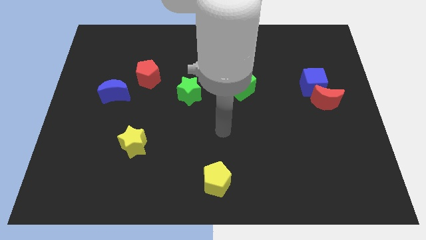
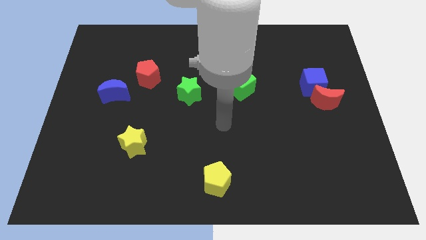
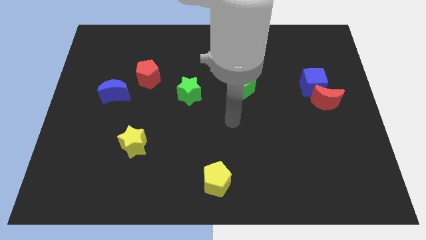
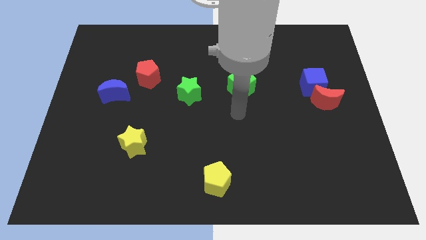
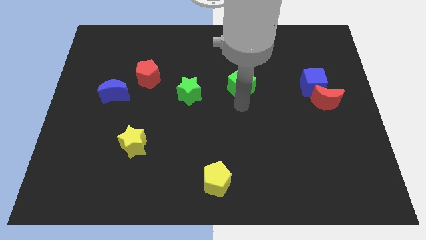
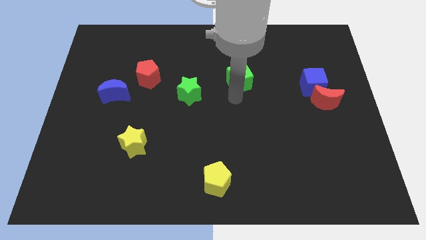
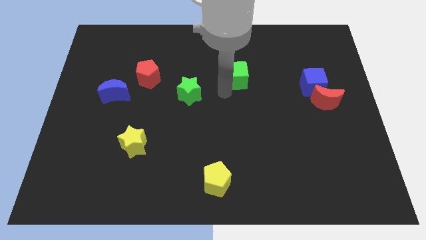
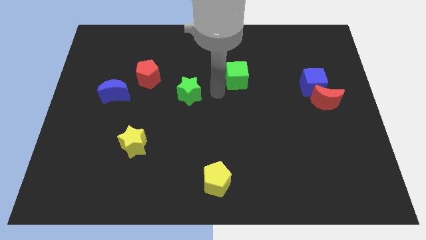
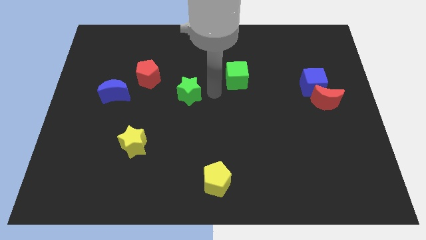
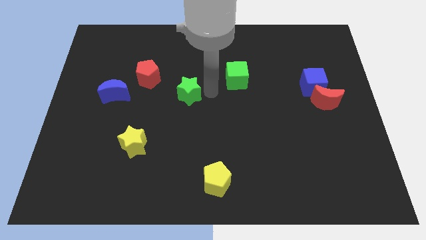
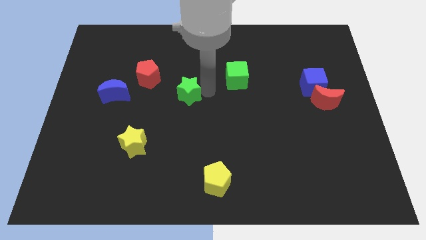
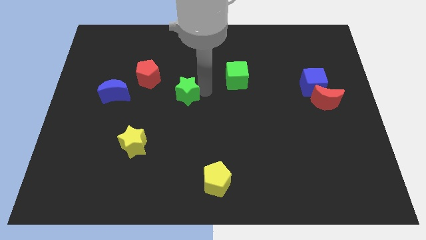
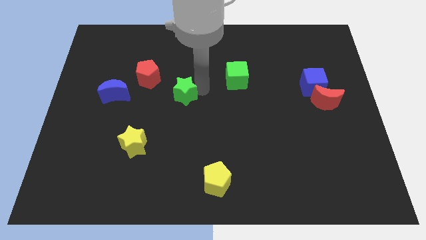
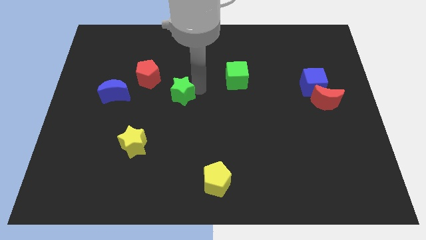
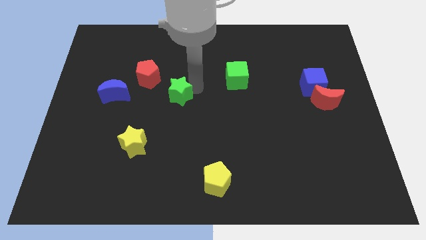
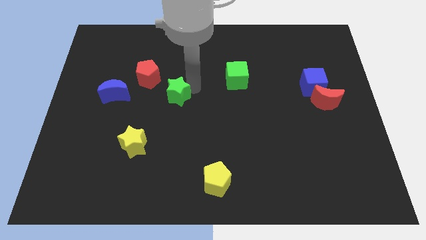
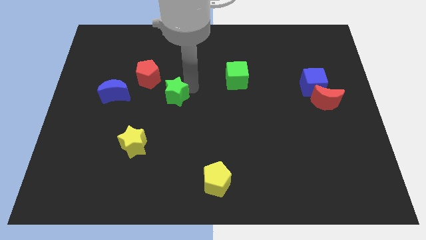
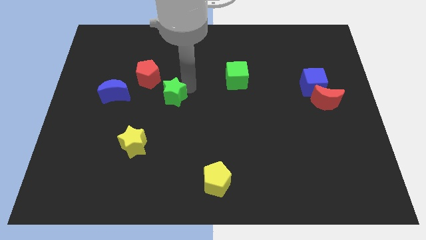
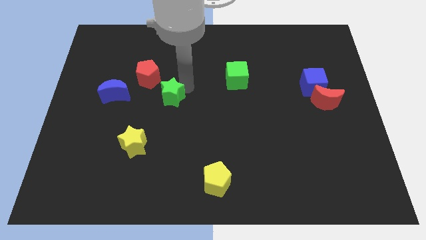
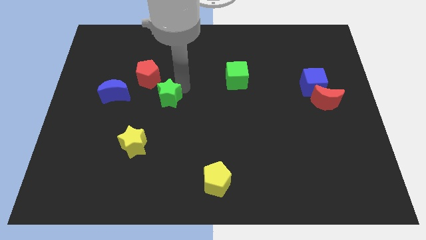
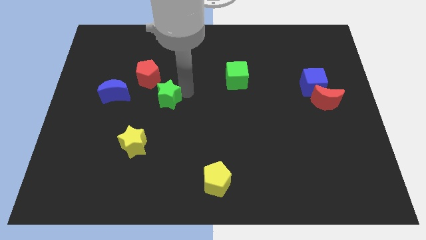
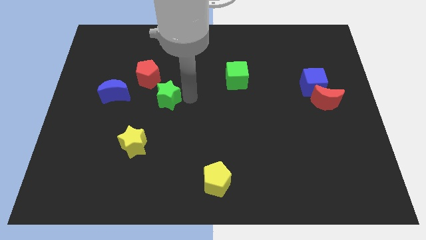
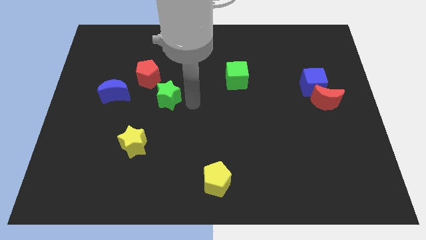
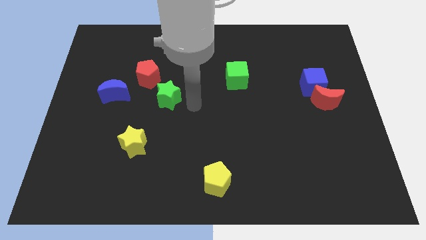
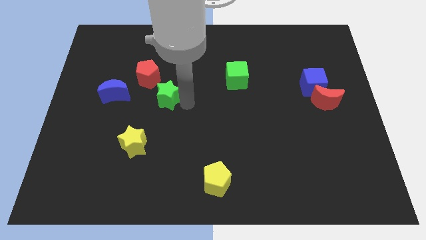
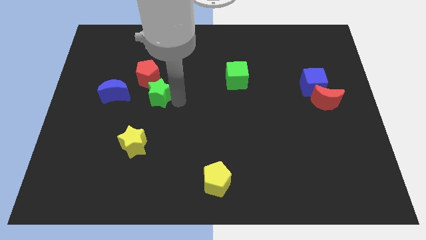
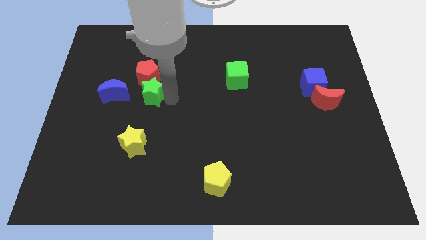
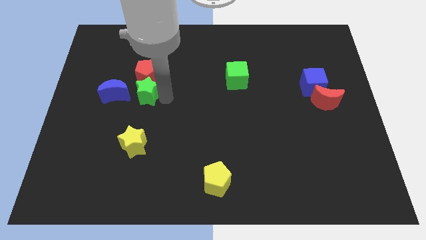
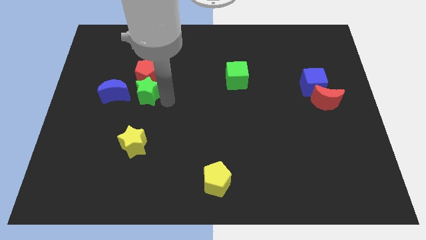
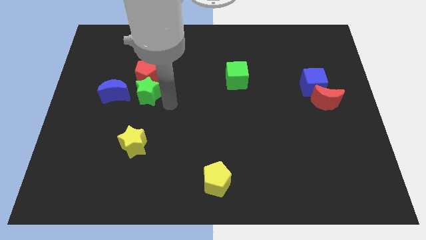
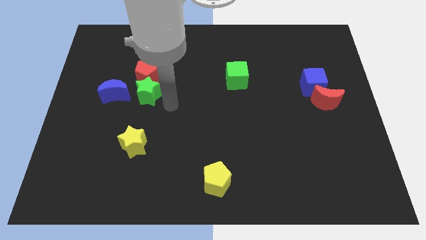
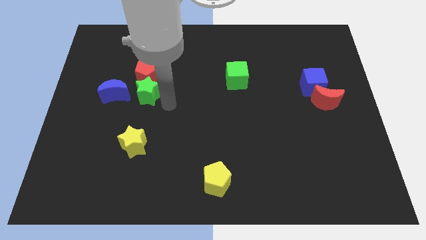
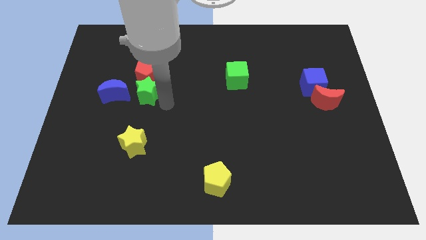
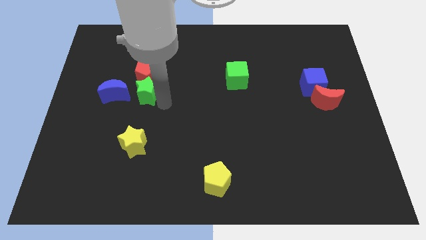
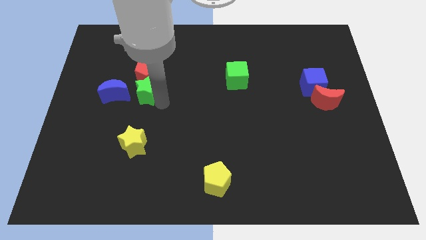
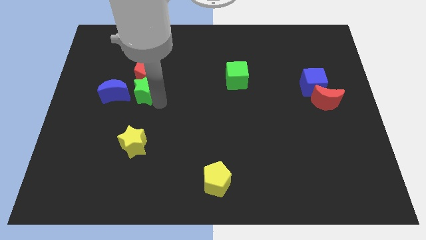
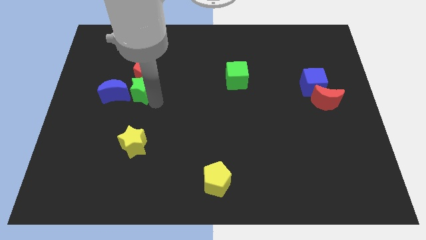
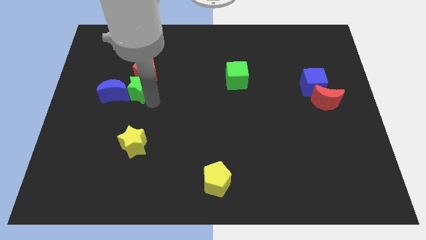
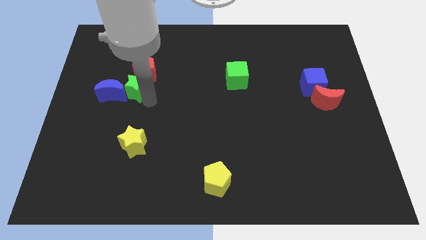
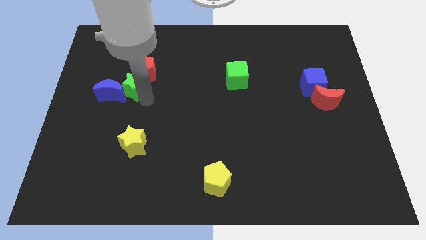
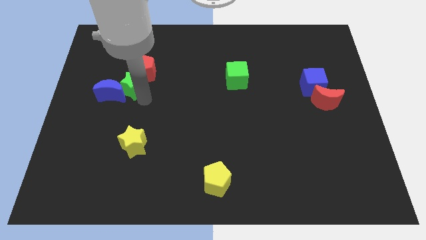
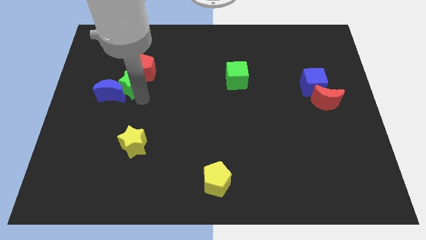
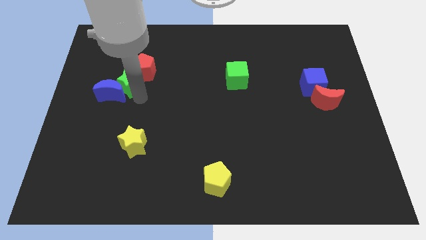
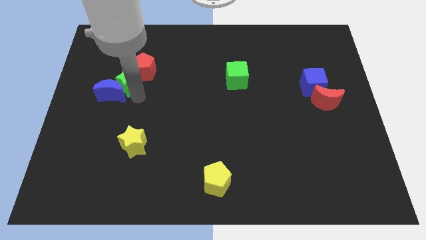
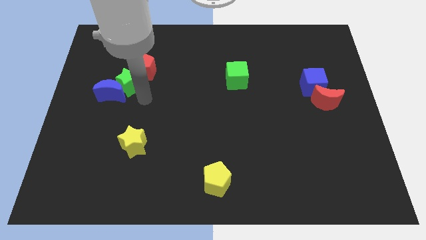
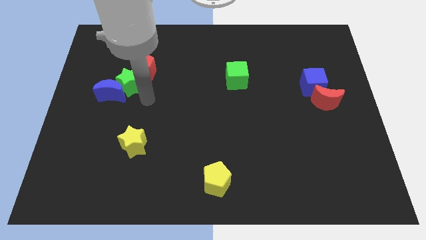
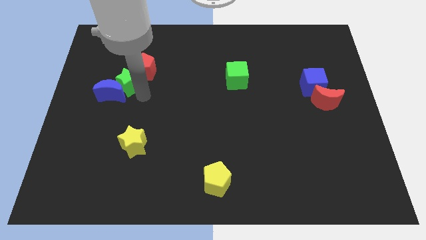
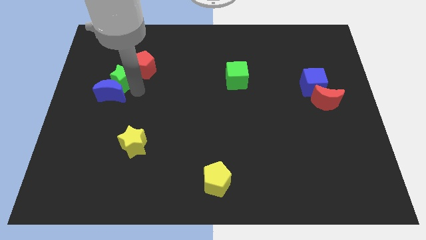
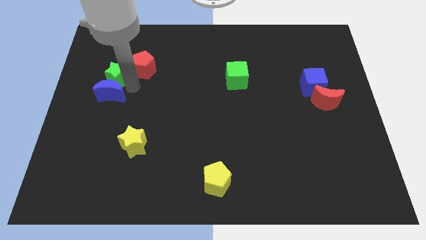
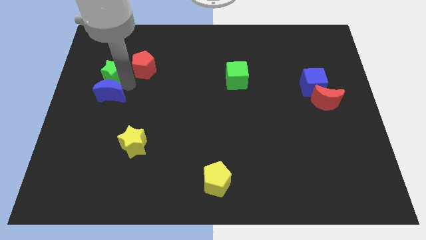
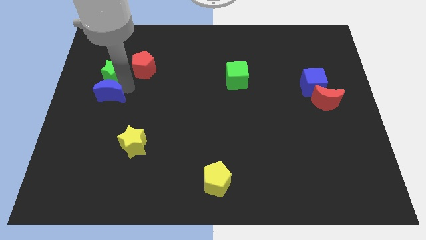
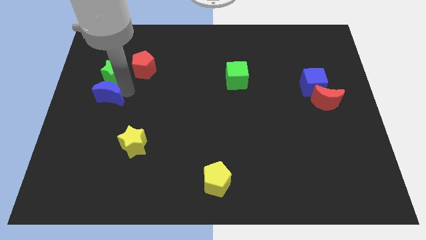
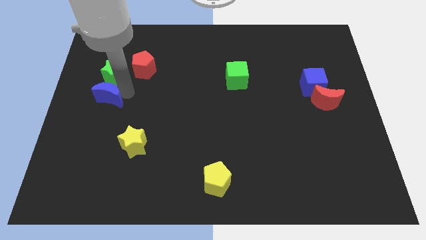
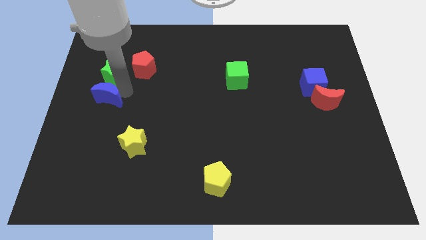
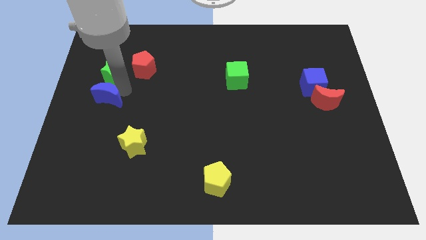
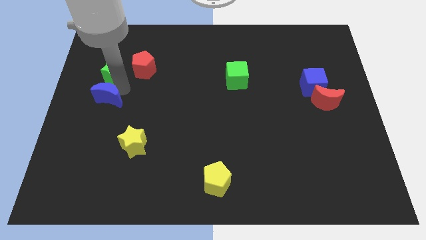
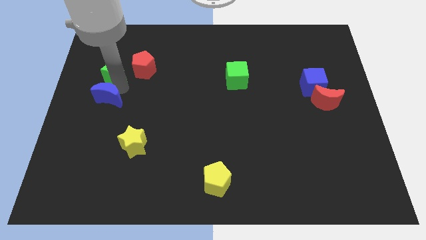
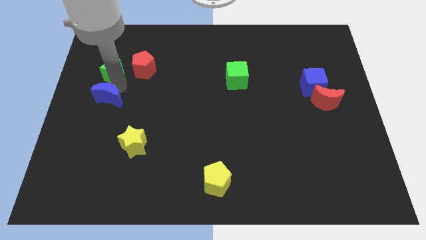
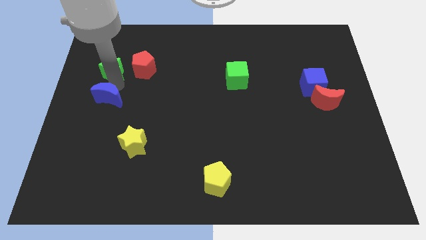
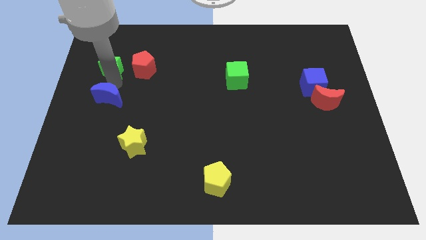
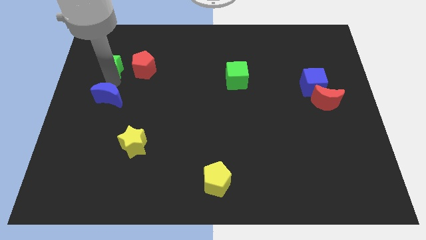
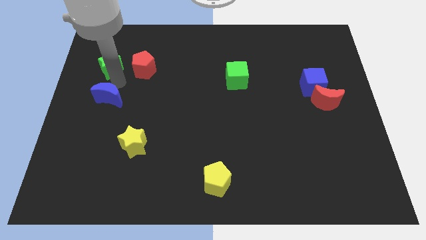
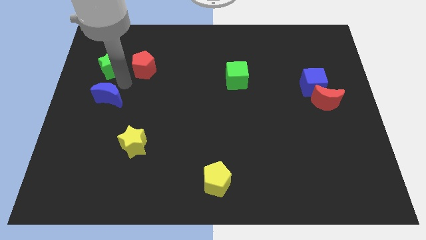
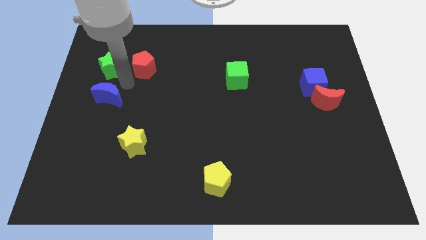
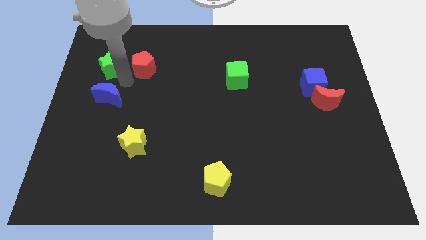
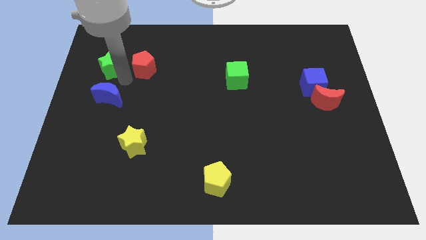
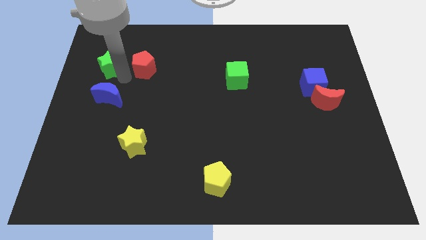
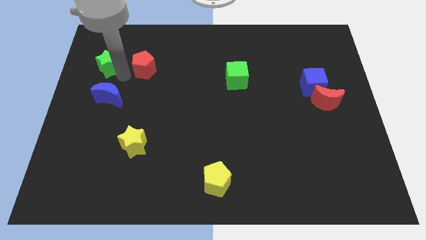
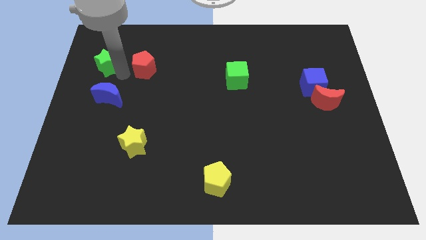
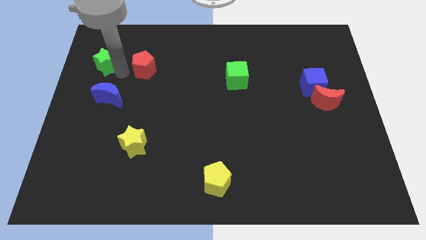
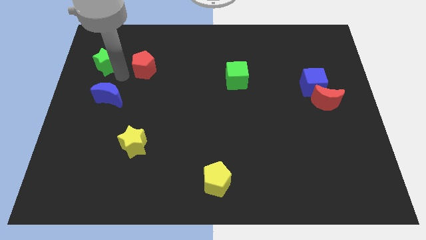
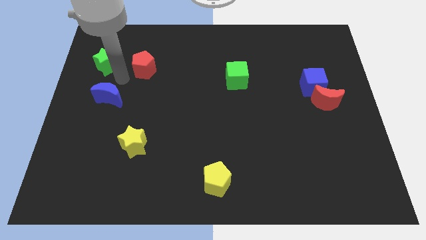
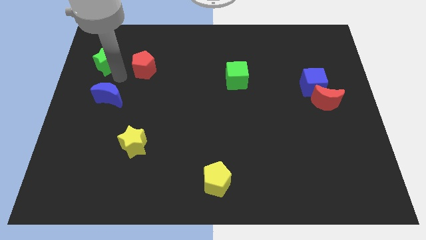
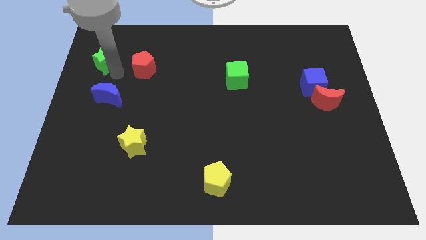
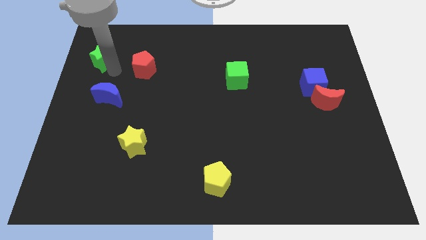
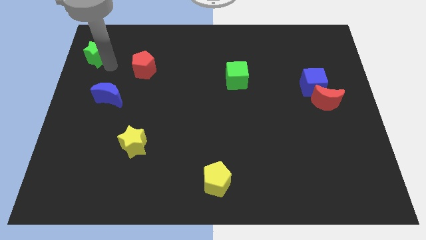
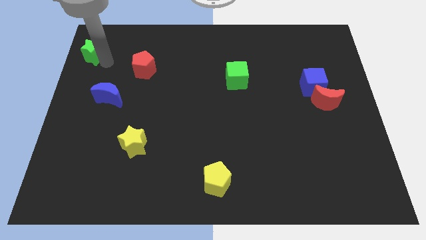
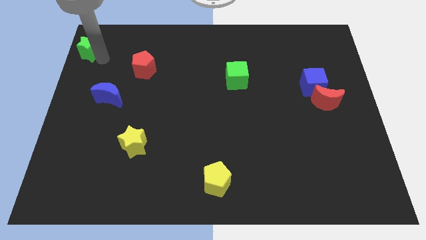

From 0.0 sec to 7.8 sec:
put the green star to the upper left corner

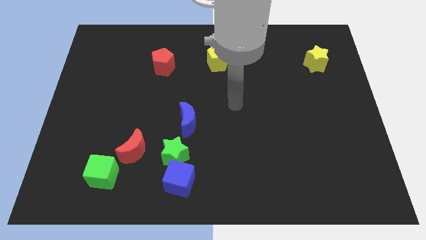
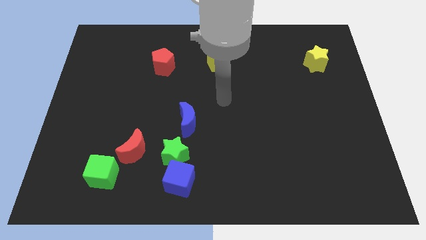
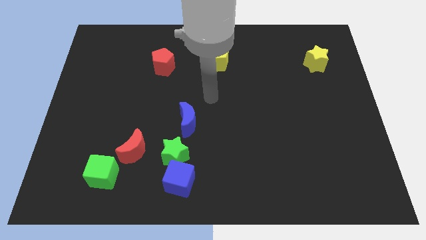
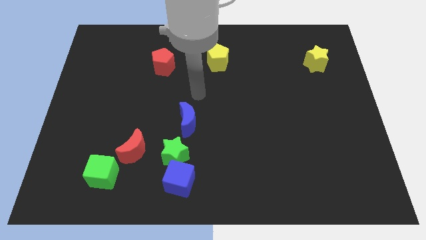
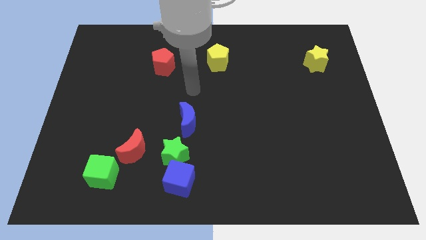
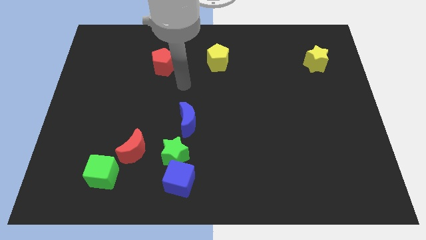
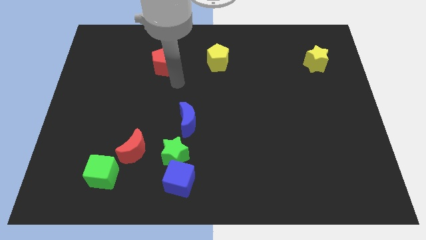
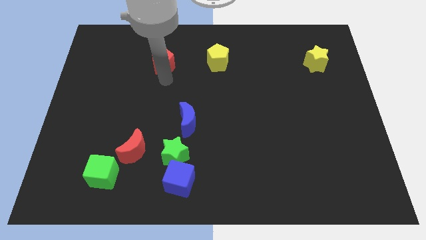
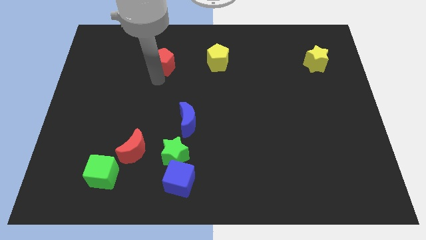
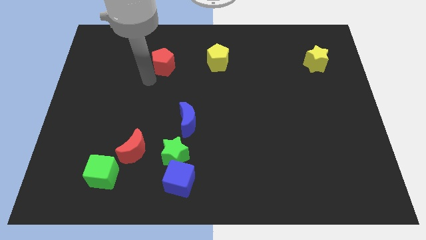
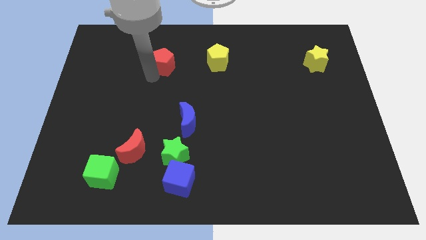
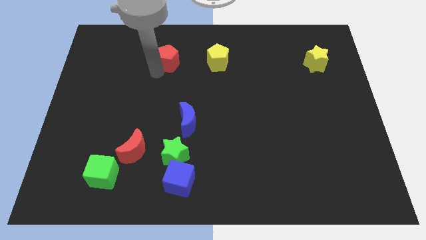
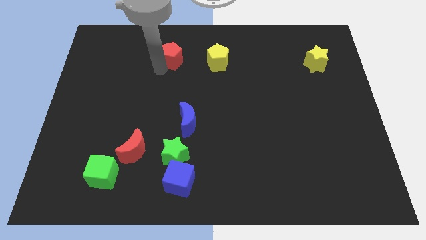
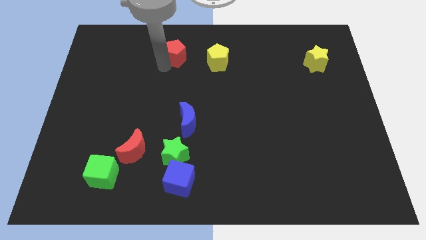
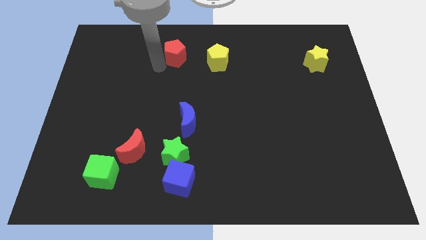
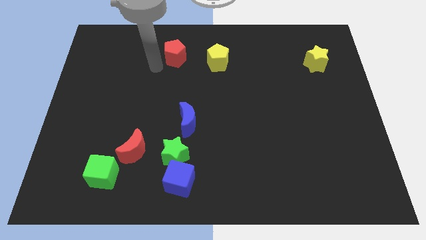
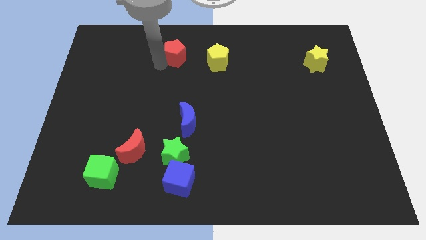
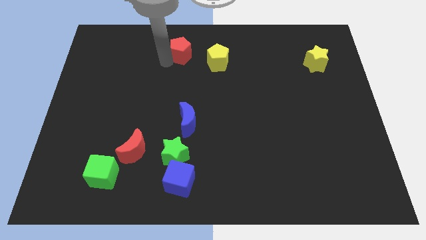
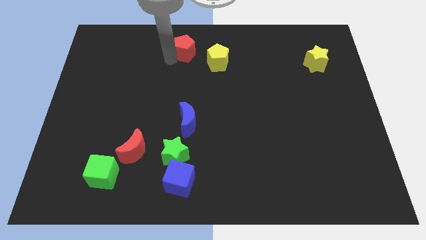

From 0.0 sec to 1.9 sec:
put the red pentagon to the top
